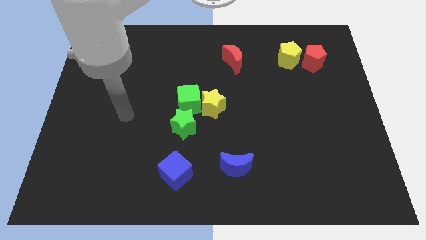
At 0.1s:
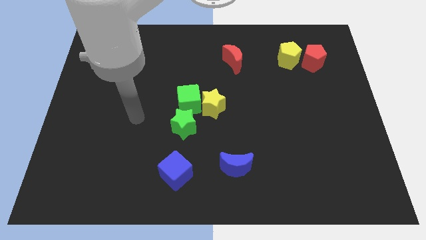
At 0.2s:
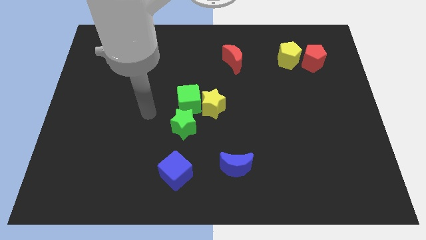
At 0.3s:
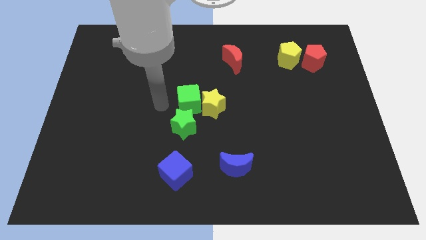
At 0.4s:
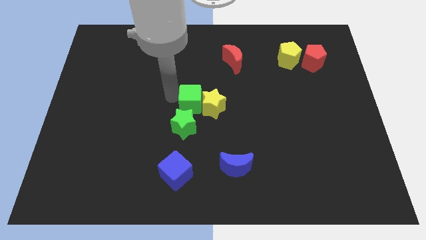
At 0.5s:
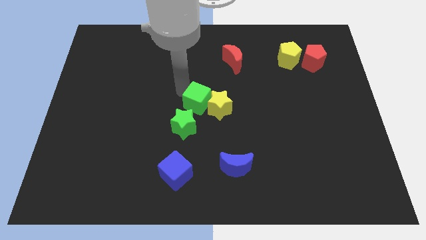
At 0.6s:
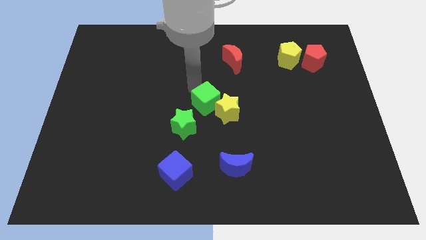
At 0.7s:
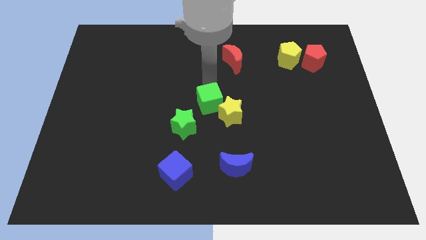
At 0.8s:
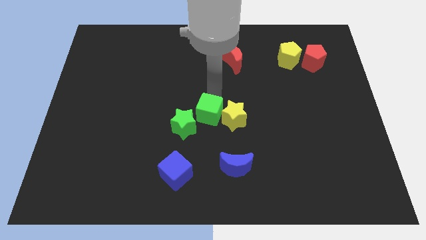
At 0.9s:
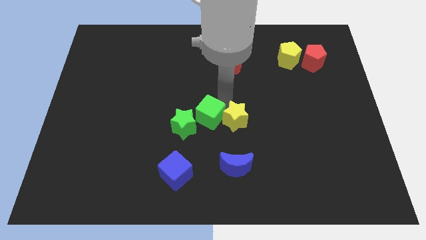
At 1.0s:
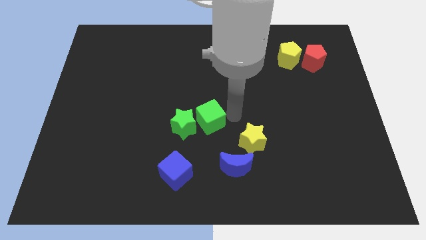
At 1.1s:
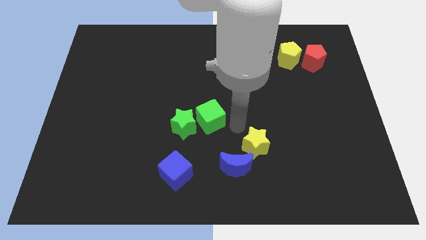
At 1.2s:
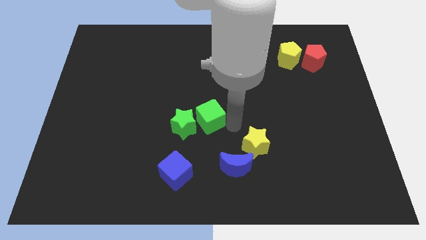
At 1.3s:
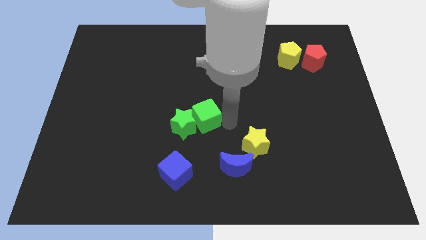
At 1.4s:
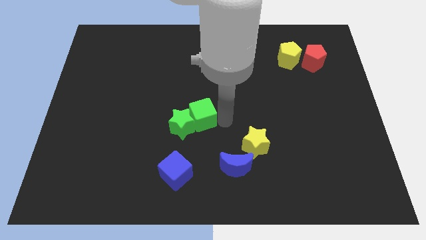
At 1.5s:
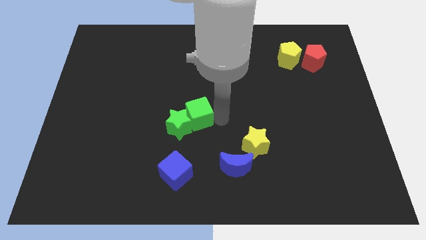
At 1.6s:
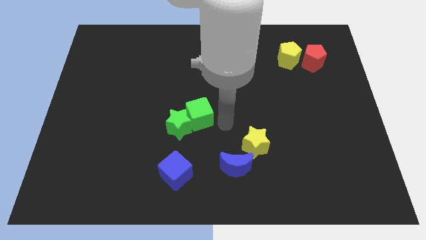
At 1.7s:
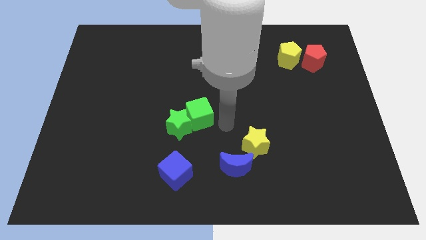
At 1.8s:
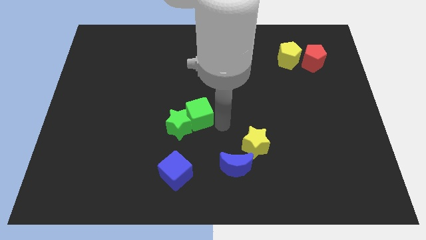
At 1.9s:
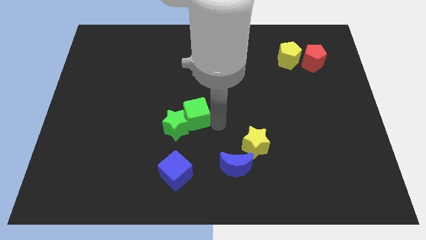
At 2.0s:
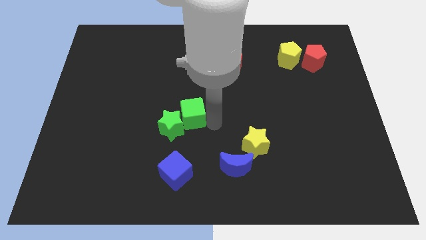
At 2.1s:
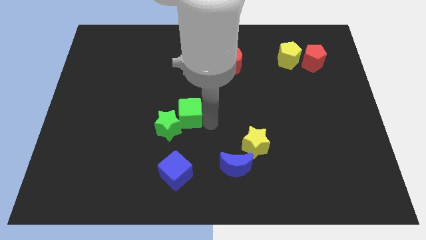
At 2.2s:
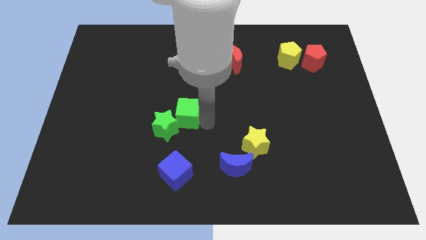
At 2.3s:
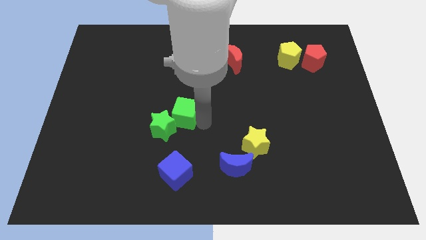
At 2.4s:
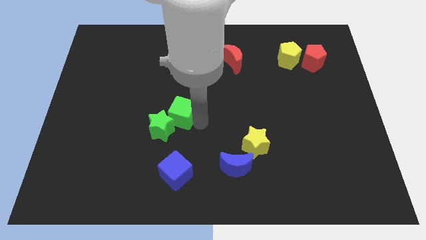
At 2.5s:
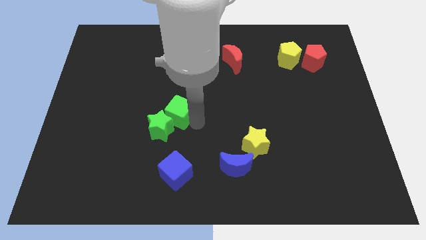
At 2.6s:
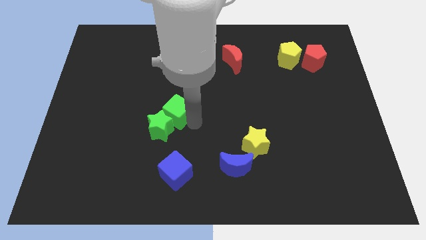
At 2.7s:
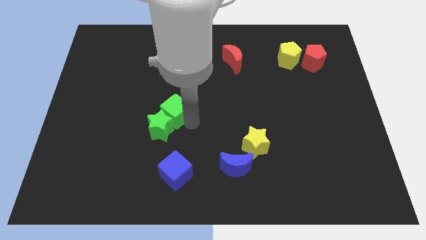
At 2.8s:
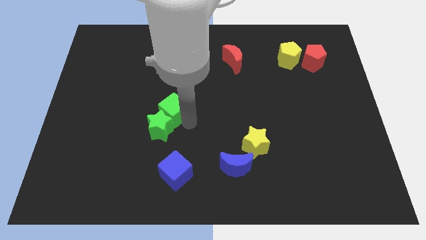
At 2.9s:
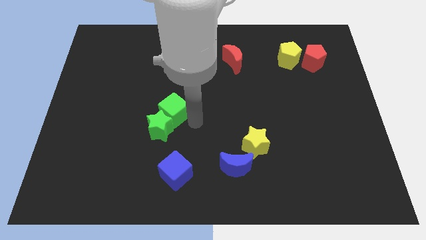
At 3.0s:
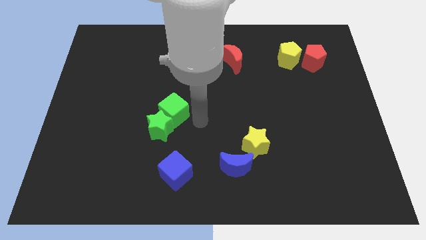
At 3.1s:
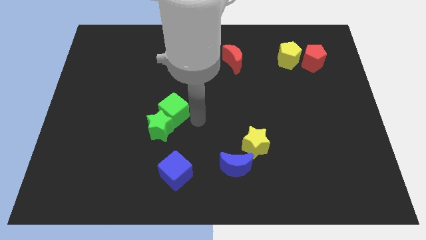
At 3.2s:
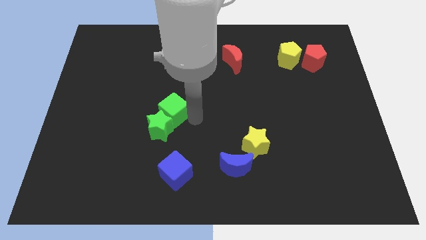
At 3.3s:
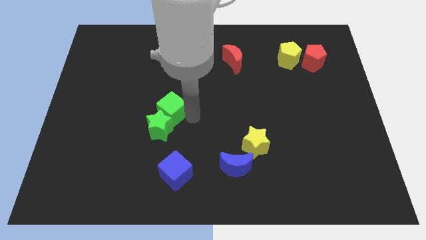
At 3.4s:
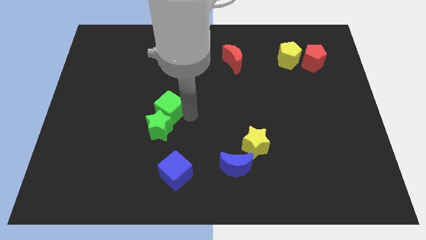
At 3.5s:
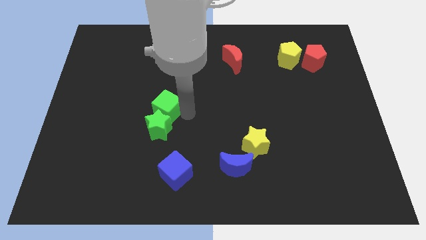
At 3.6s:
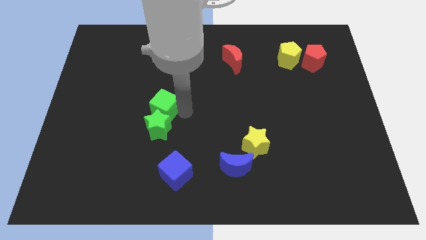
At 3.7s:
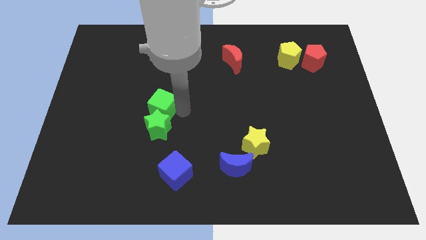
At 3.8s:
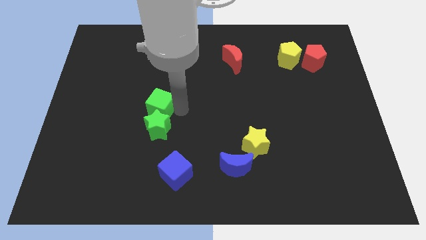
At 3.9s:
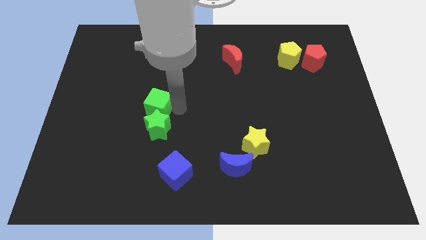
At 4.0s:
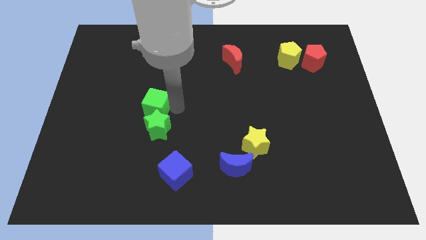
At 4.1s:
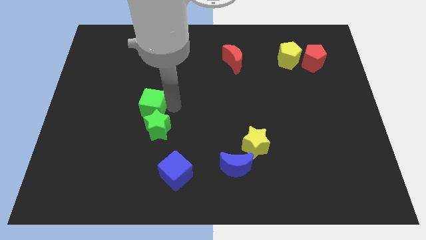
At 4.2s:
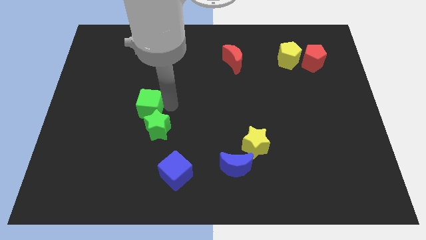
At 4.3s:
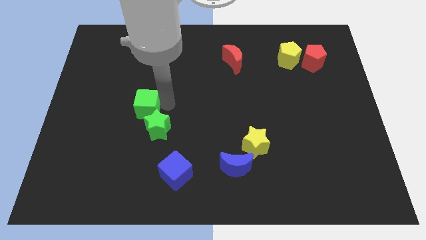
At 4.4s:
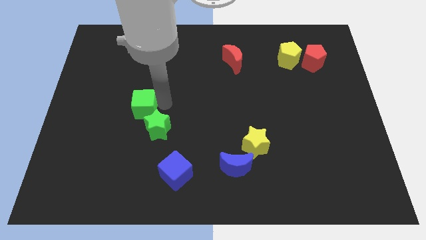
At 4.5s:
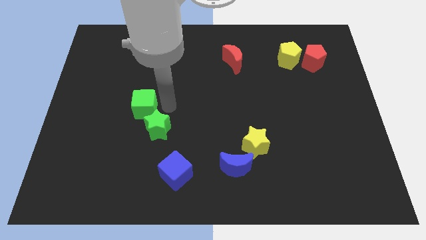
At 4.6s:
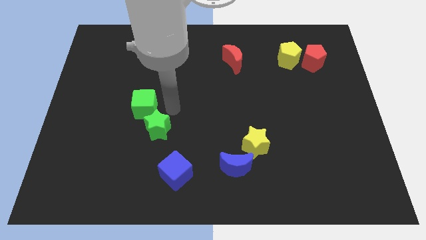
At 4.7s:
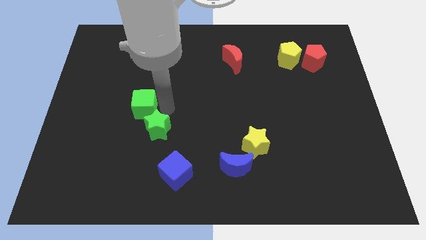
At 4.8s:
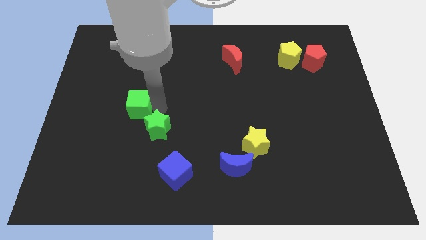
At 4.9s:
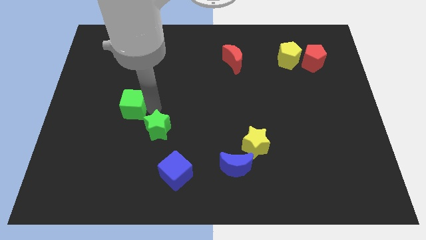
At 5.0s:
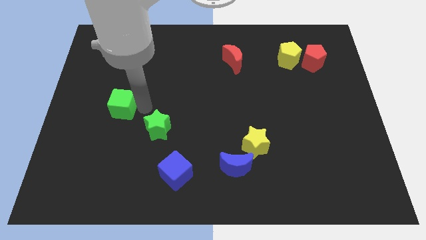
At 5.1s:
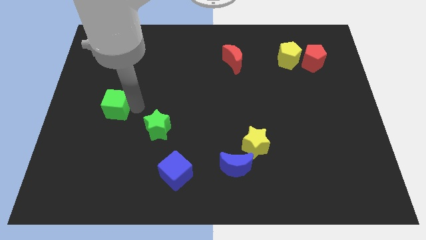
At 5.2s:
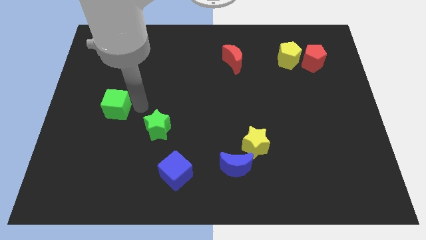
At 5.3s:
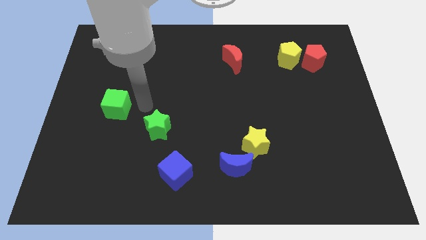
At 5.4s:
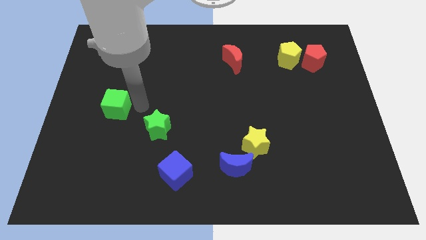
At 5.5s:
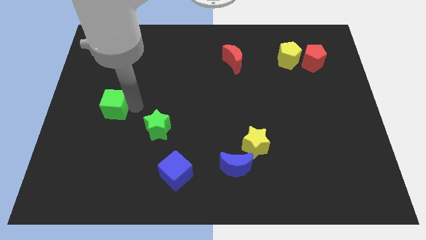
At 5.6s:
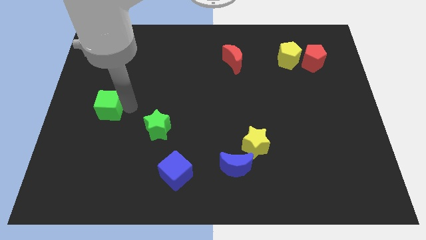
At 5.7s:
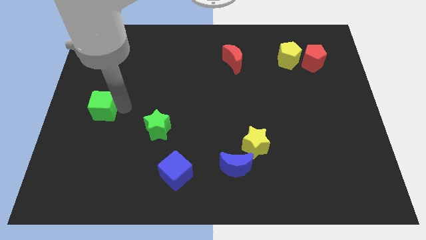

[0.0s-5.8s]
move the green cube to the left side

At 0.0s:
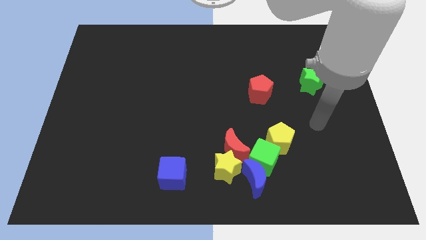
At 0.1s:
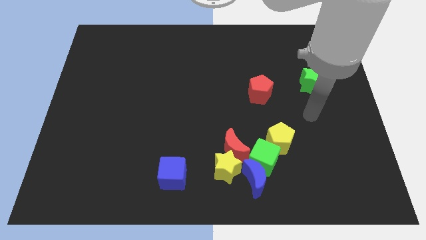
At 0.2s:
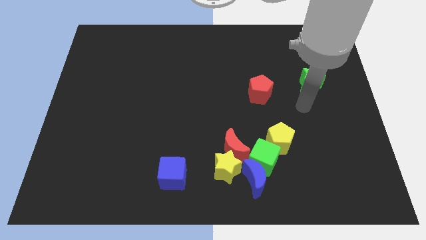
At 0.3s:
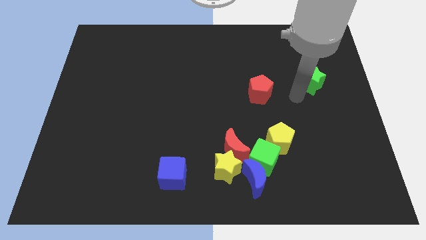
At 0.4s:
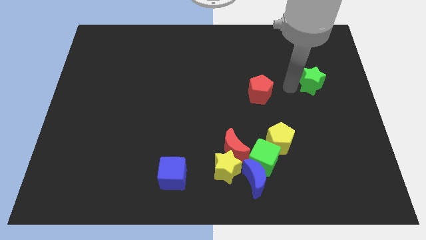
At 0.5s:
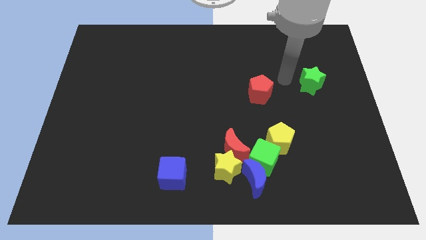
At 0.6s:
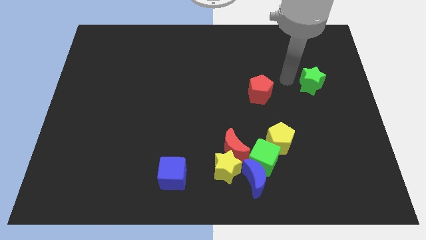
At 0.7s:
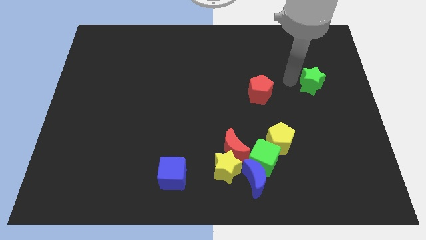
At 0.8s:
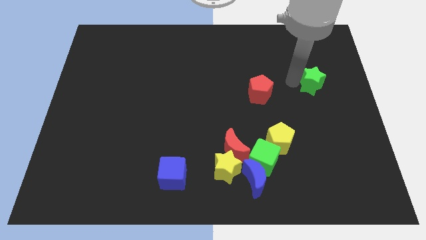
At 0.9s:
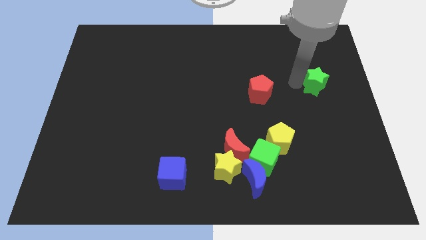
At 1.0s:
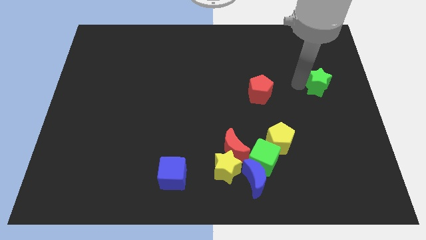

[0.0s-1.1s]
put the green star to the right side

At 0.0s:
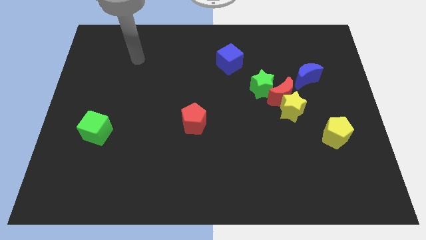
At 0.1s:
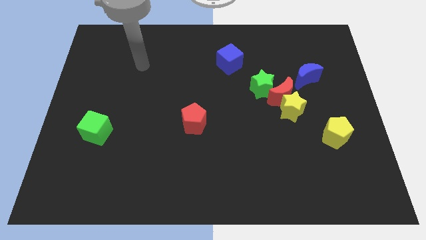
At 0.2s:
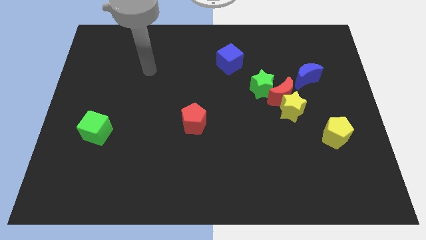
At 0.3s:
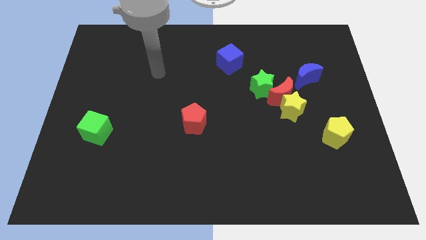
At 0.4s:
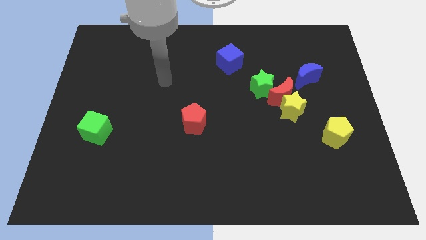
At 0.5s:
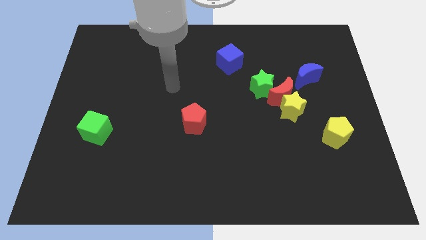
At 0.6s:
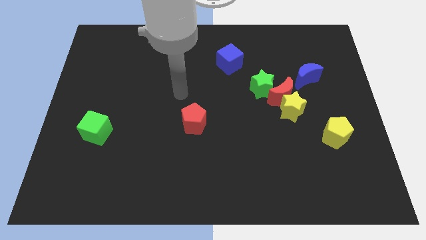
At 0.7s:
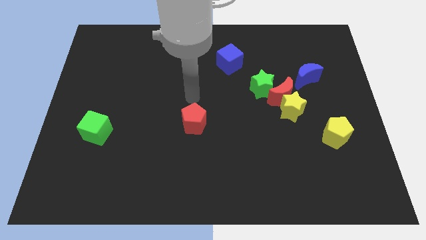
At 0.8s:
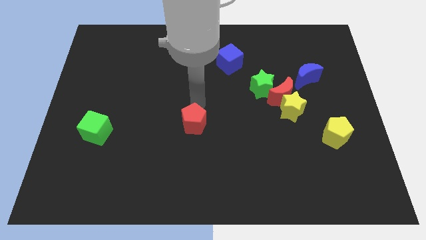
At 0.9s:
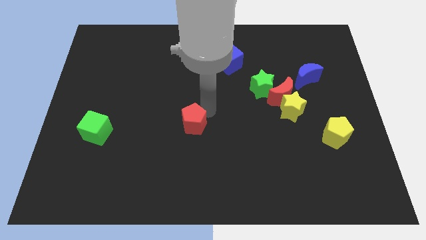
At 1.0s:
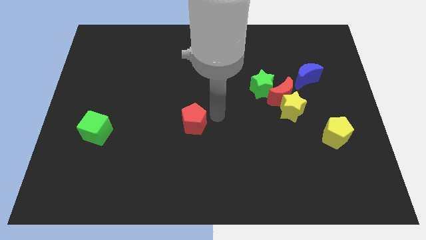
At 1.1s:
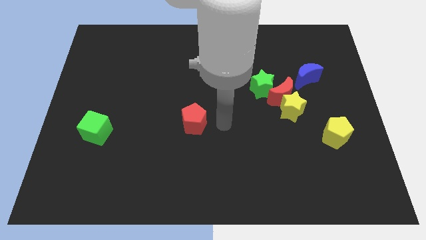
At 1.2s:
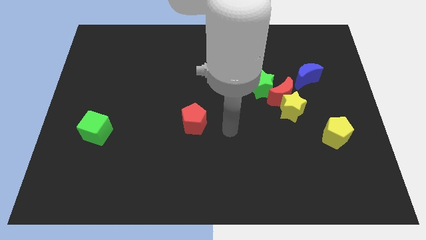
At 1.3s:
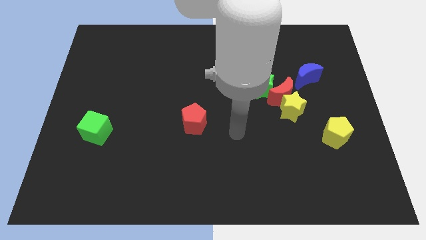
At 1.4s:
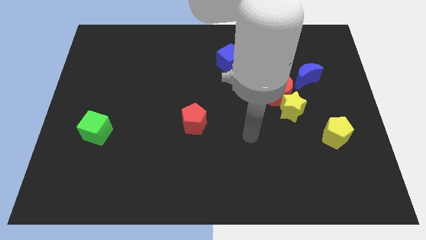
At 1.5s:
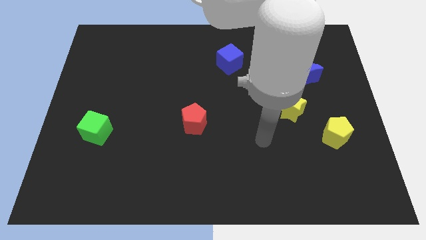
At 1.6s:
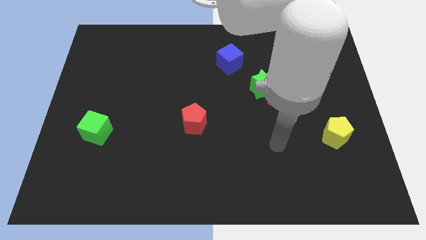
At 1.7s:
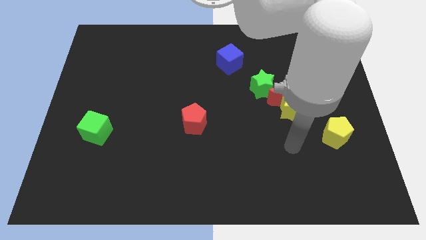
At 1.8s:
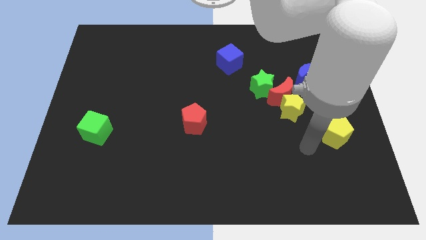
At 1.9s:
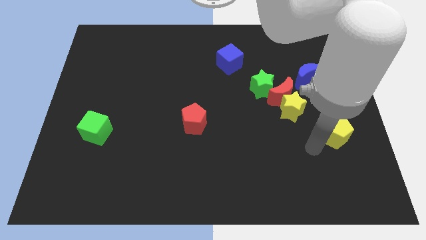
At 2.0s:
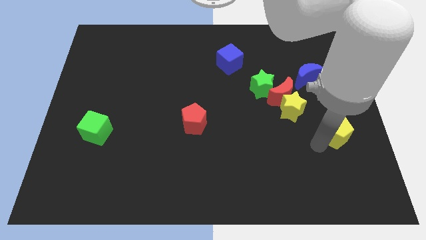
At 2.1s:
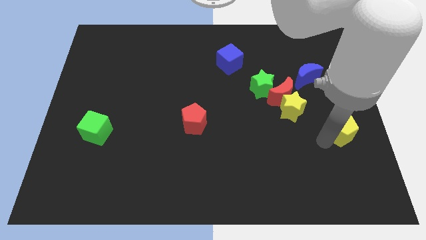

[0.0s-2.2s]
slide the yellow pentagon to the right side
